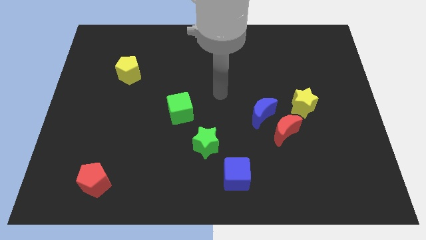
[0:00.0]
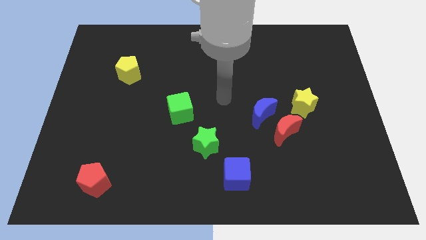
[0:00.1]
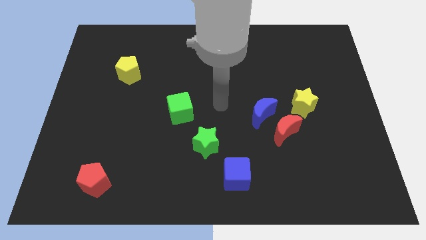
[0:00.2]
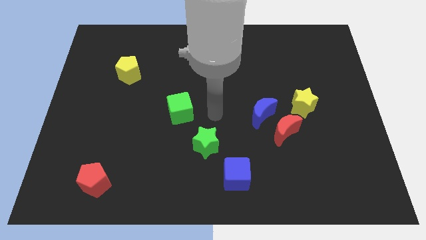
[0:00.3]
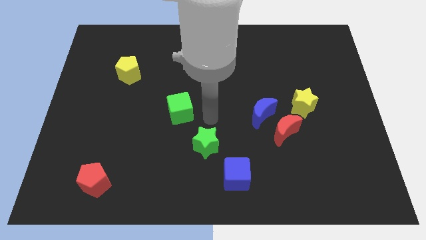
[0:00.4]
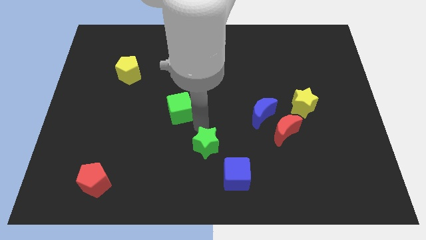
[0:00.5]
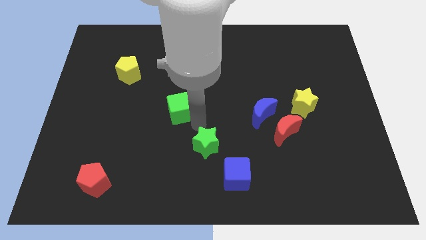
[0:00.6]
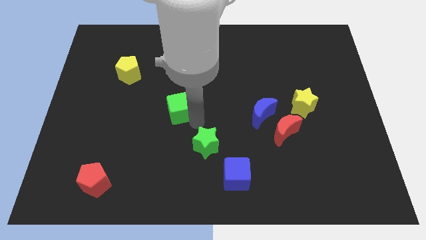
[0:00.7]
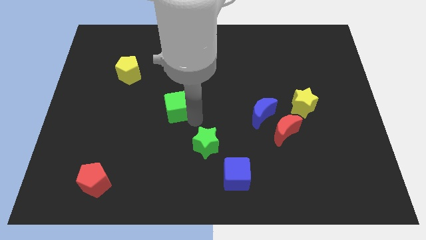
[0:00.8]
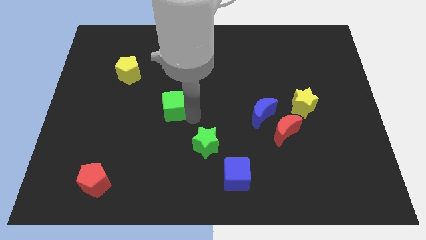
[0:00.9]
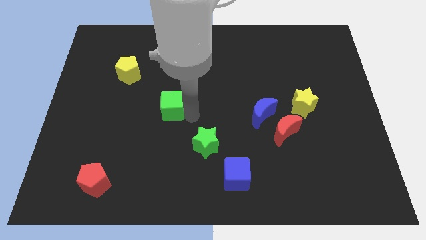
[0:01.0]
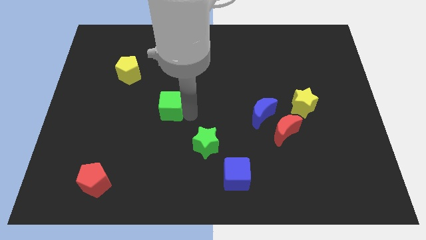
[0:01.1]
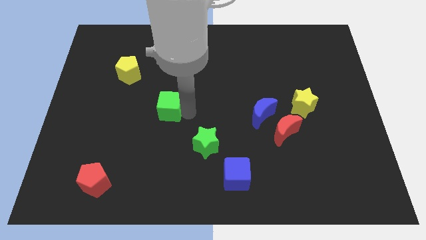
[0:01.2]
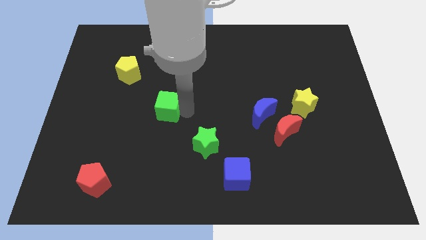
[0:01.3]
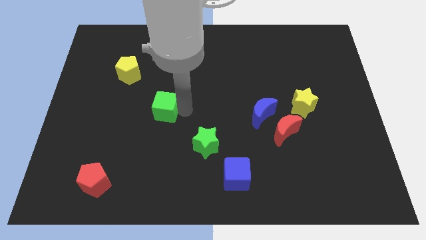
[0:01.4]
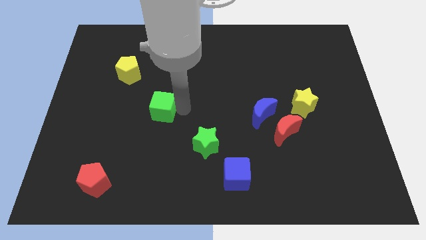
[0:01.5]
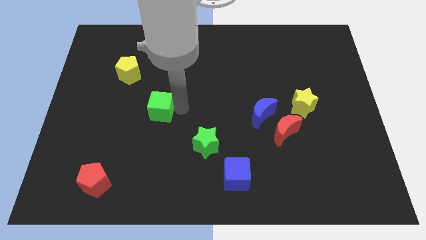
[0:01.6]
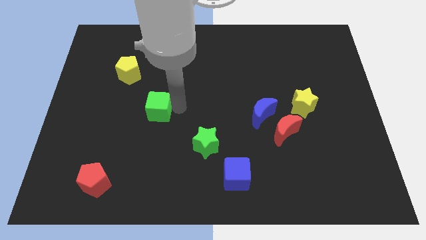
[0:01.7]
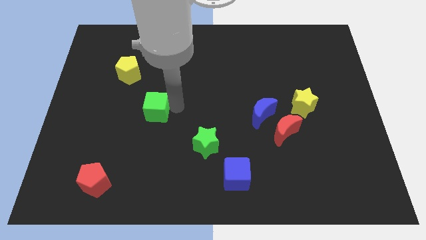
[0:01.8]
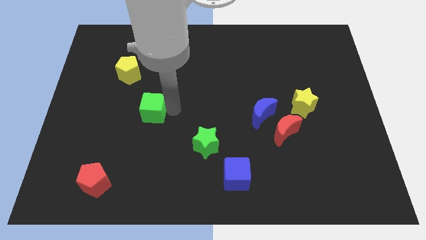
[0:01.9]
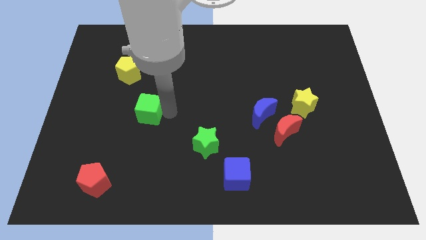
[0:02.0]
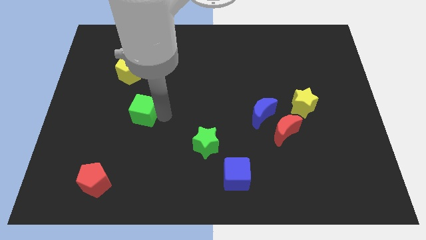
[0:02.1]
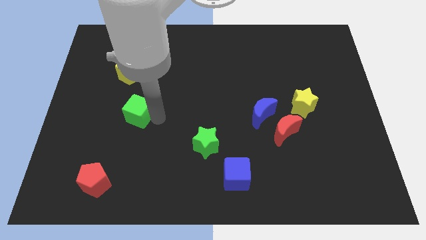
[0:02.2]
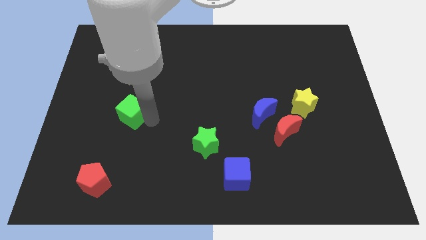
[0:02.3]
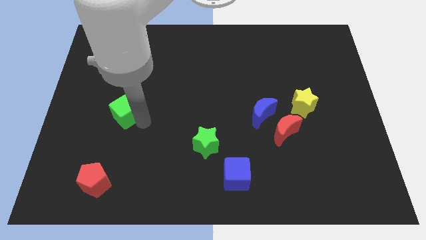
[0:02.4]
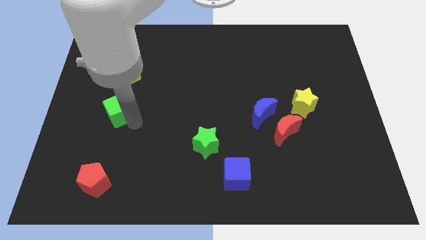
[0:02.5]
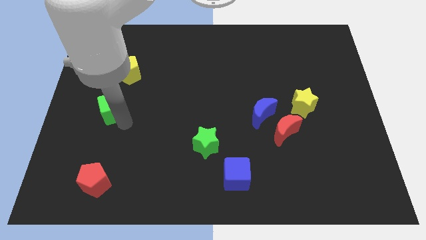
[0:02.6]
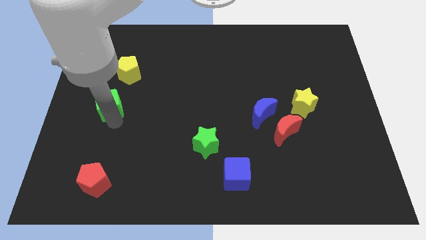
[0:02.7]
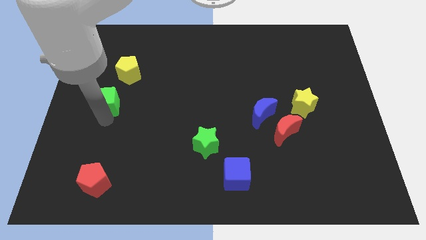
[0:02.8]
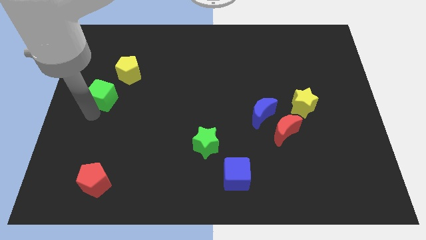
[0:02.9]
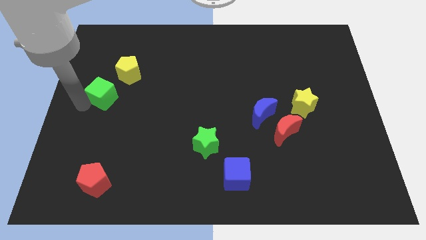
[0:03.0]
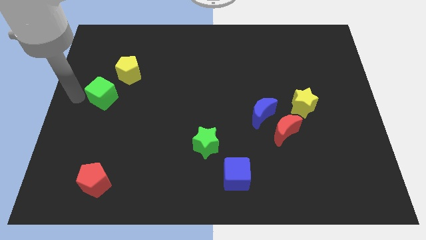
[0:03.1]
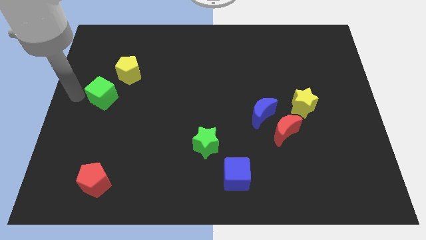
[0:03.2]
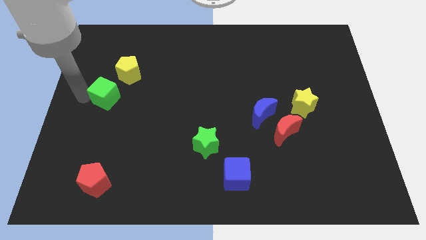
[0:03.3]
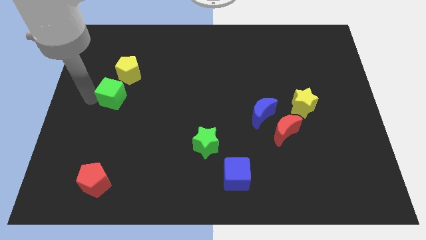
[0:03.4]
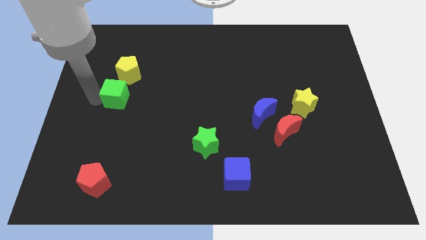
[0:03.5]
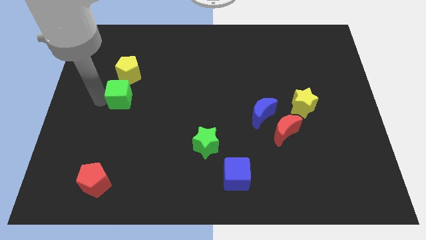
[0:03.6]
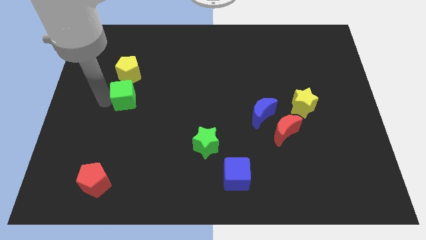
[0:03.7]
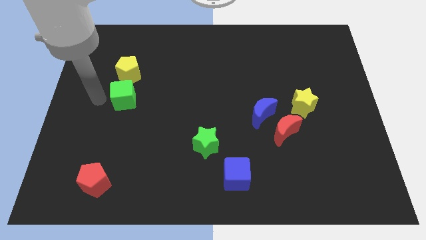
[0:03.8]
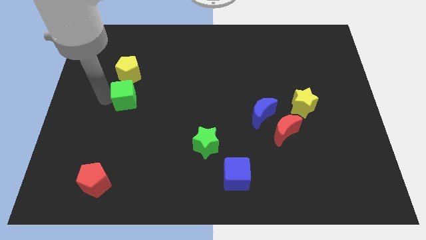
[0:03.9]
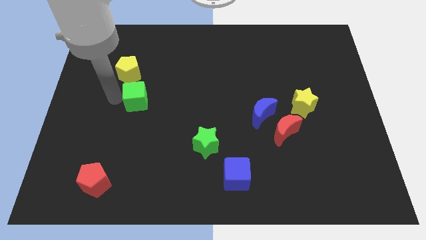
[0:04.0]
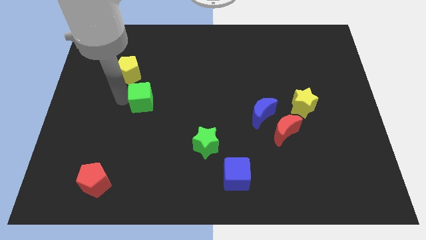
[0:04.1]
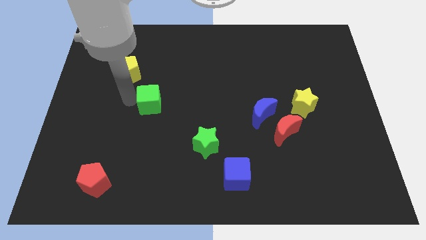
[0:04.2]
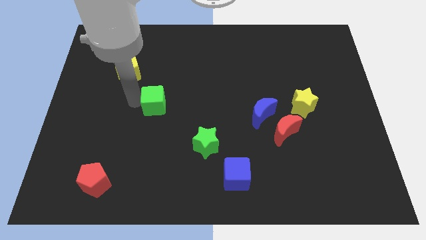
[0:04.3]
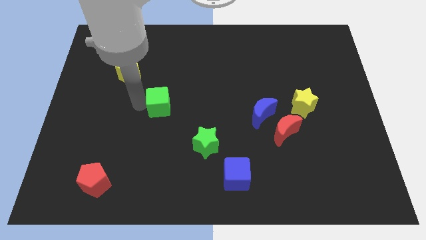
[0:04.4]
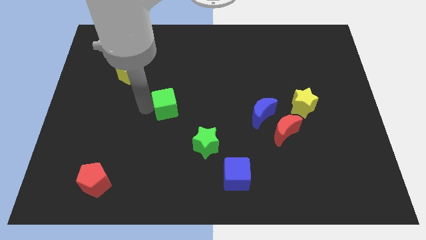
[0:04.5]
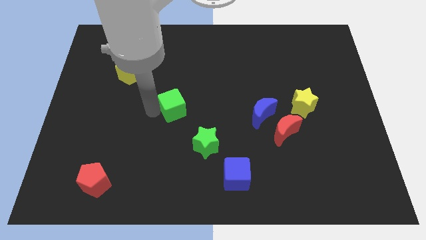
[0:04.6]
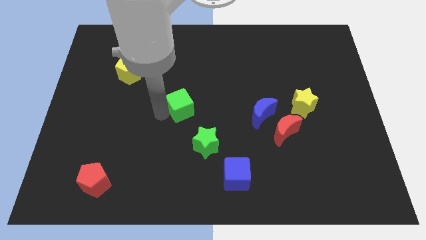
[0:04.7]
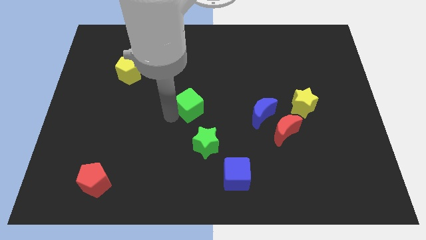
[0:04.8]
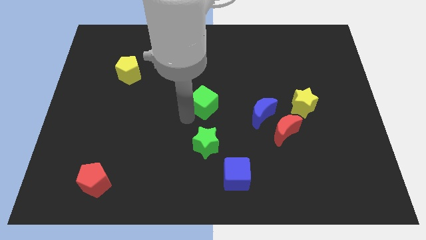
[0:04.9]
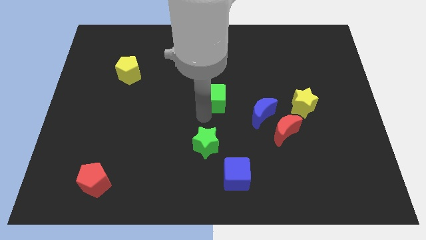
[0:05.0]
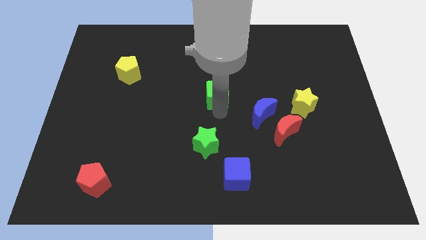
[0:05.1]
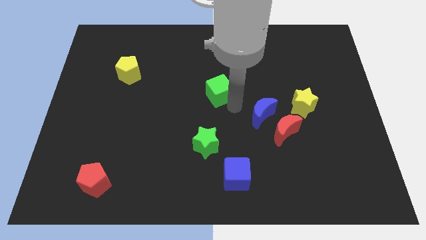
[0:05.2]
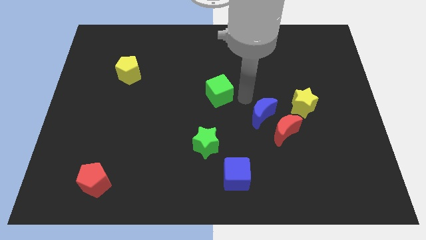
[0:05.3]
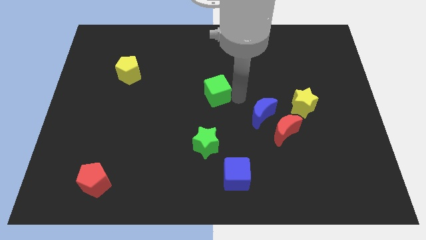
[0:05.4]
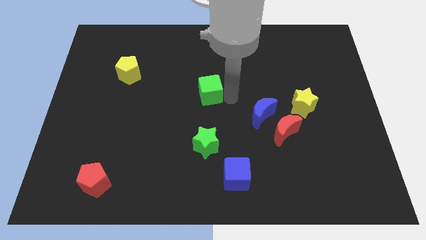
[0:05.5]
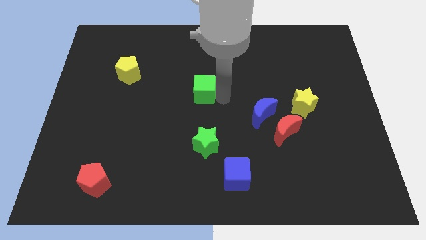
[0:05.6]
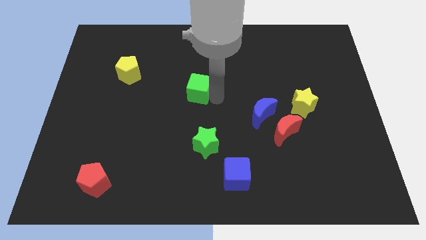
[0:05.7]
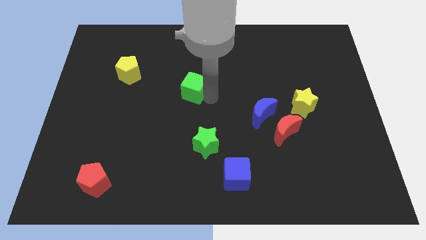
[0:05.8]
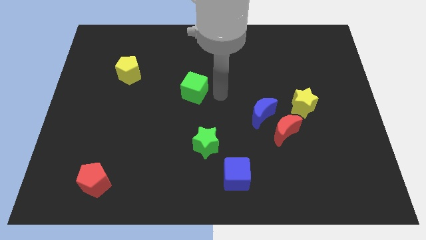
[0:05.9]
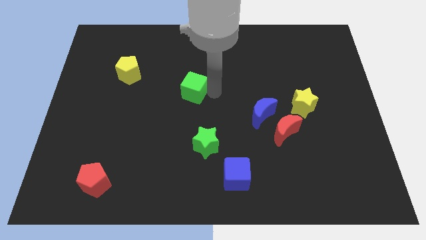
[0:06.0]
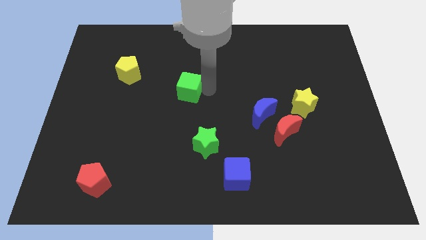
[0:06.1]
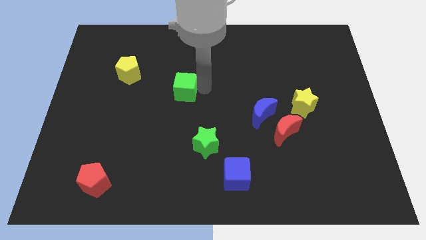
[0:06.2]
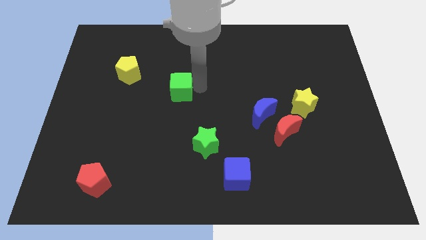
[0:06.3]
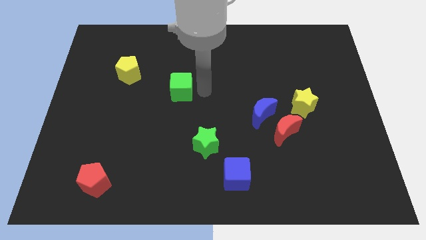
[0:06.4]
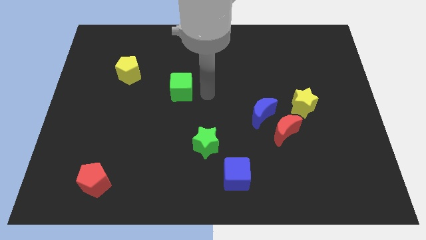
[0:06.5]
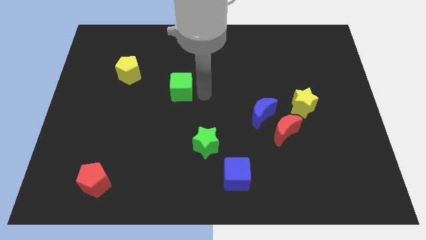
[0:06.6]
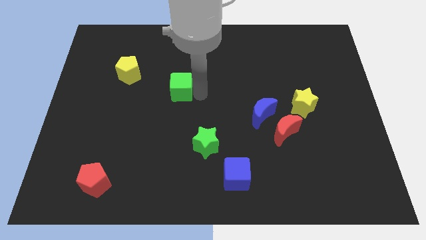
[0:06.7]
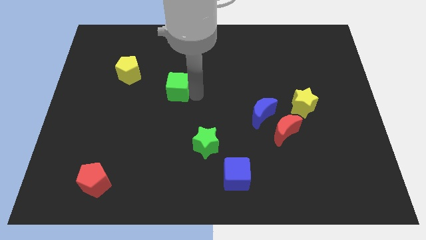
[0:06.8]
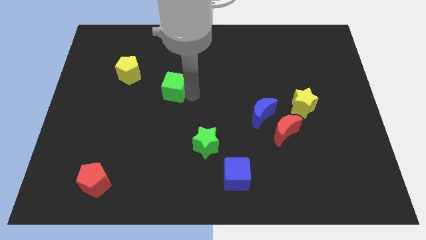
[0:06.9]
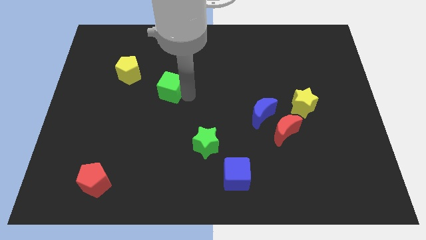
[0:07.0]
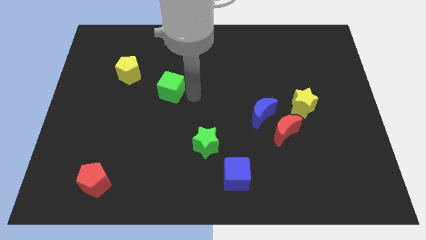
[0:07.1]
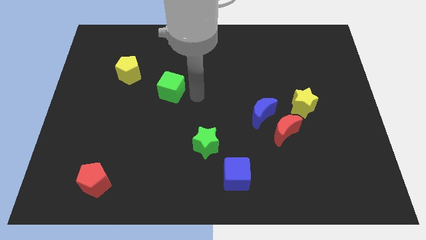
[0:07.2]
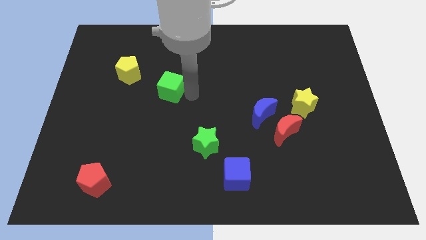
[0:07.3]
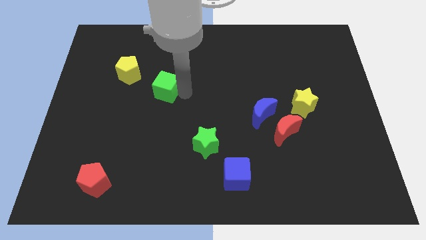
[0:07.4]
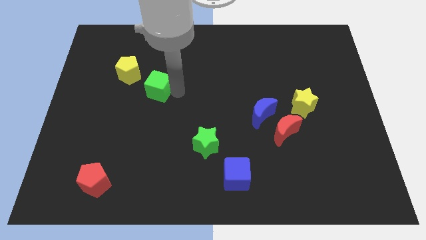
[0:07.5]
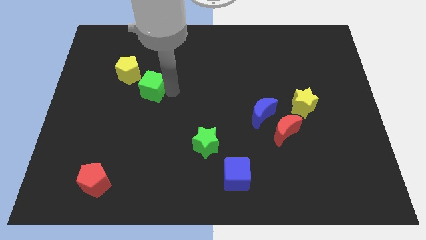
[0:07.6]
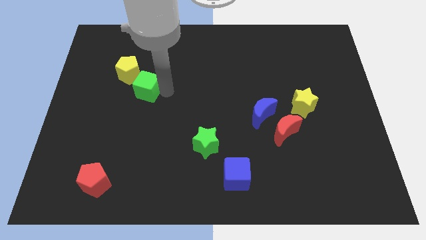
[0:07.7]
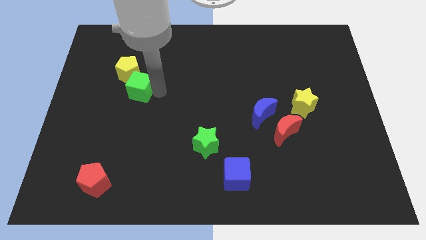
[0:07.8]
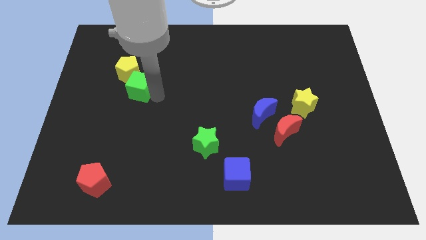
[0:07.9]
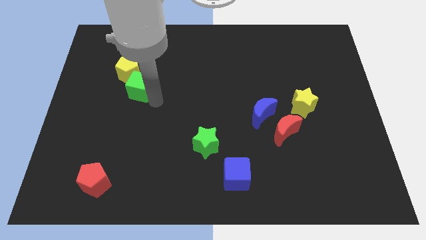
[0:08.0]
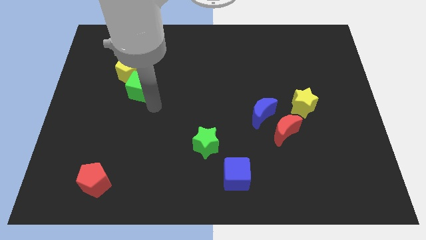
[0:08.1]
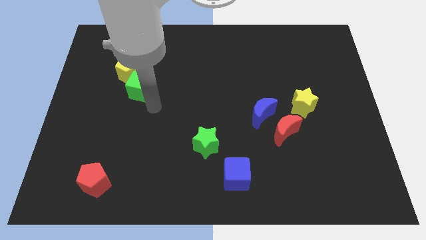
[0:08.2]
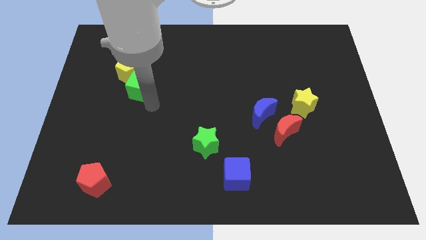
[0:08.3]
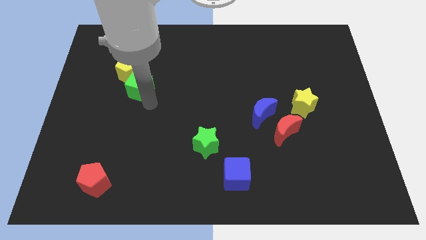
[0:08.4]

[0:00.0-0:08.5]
put the green cube next to the yellow pentagon
